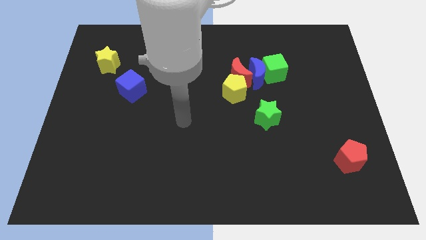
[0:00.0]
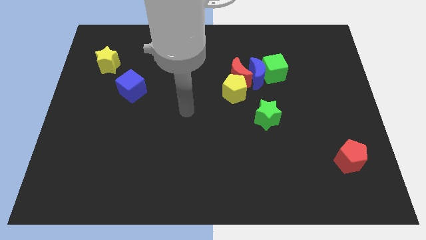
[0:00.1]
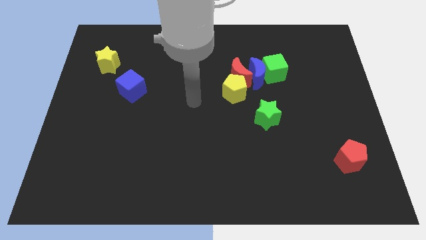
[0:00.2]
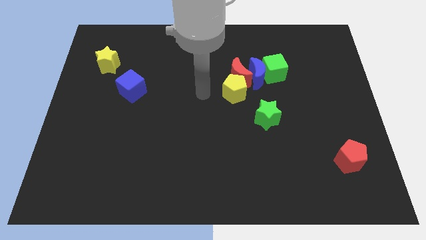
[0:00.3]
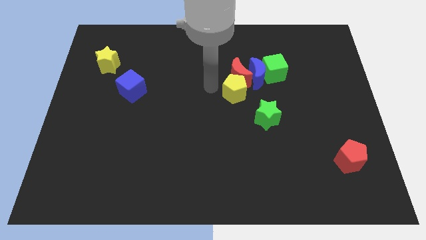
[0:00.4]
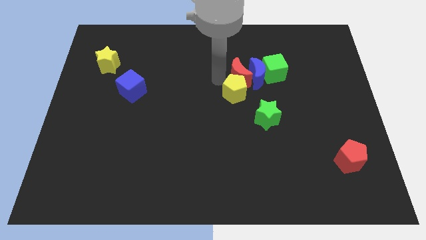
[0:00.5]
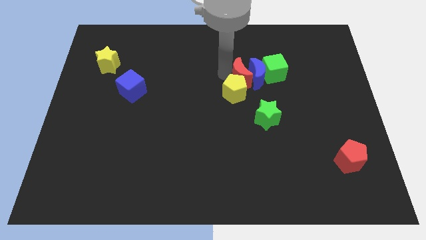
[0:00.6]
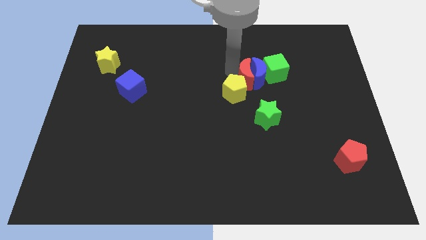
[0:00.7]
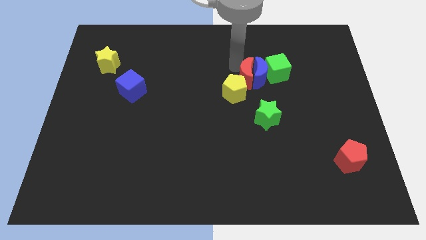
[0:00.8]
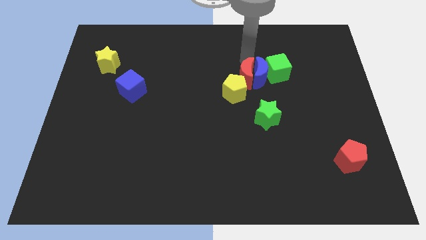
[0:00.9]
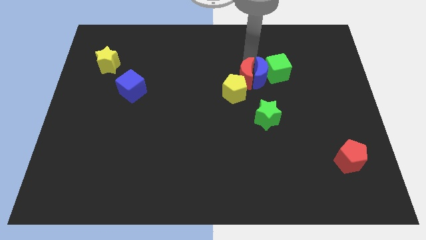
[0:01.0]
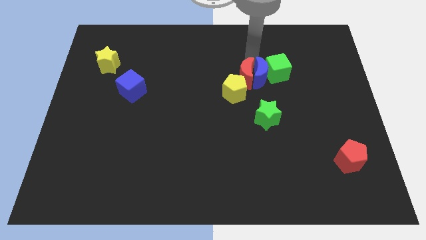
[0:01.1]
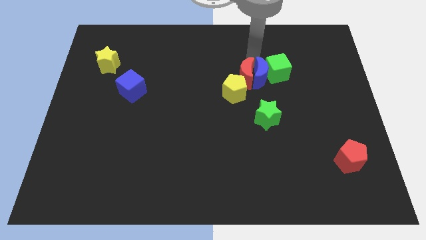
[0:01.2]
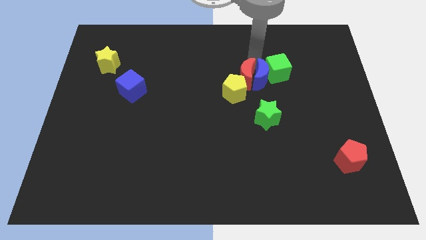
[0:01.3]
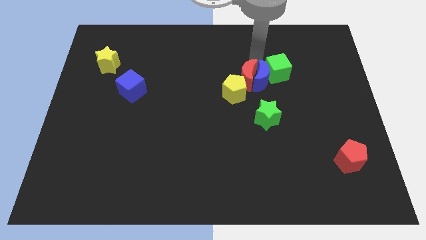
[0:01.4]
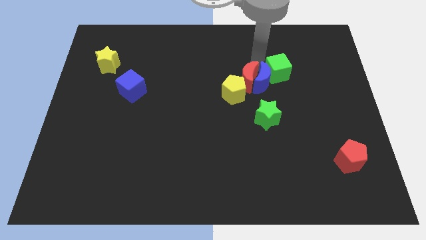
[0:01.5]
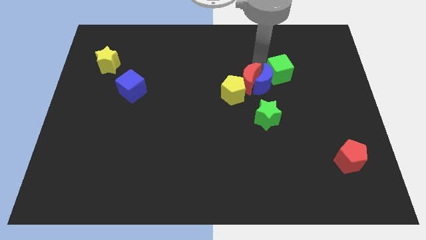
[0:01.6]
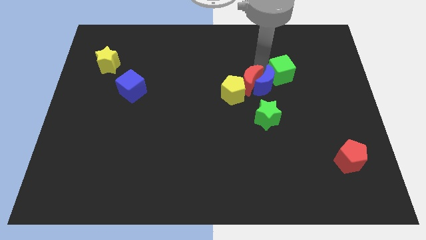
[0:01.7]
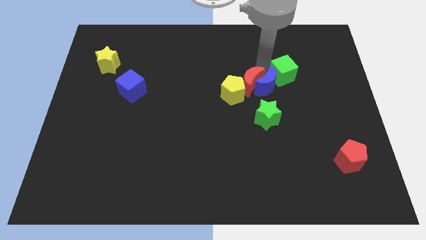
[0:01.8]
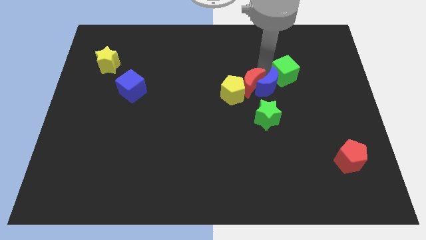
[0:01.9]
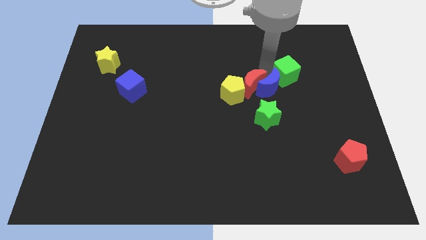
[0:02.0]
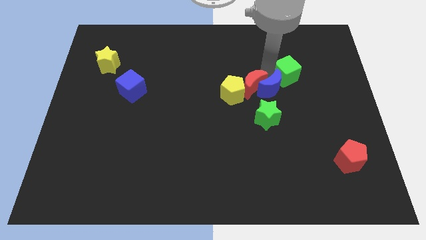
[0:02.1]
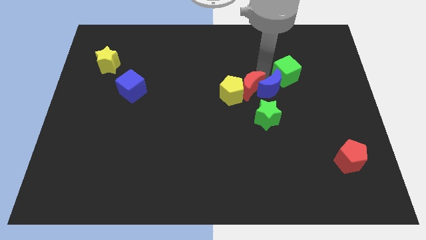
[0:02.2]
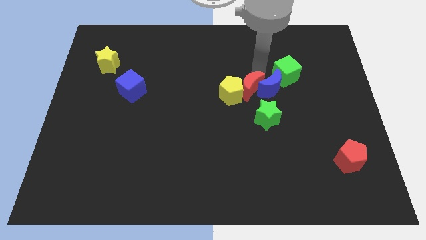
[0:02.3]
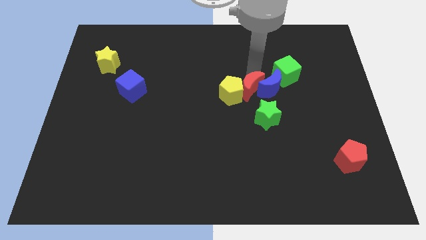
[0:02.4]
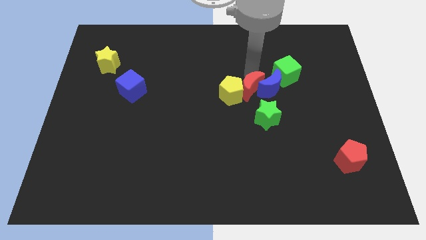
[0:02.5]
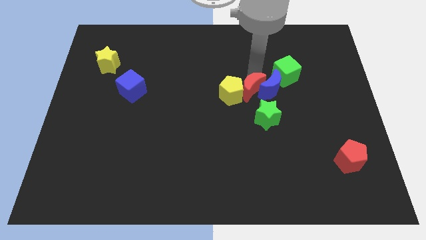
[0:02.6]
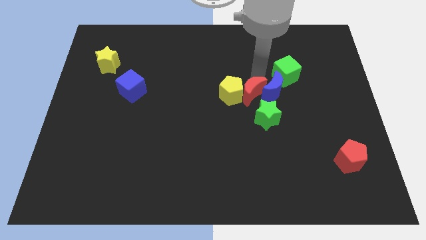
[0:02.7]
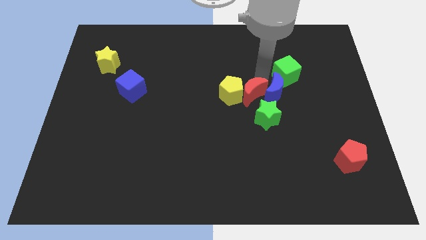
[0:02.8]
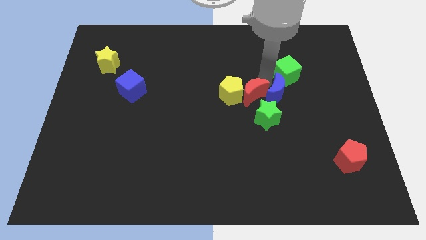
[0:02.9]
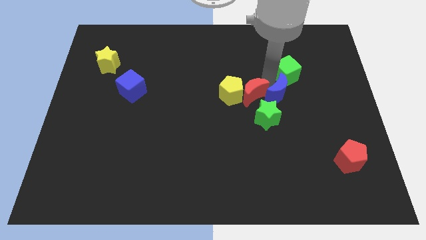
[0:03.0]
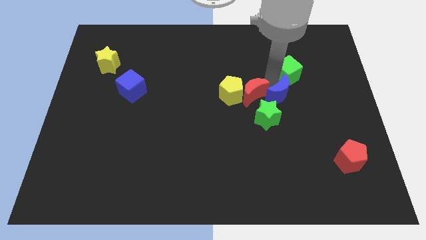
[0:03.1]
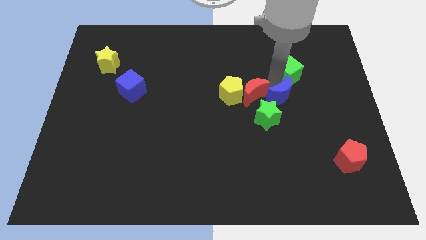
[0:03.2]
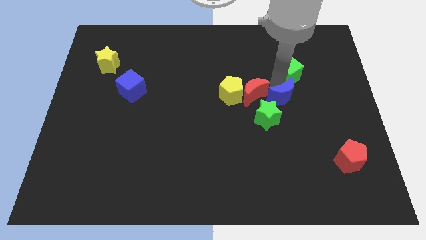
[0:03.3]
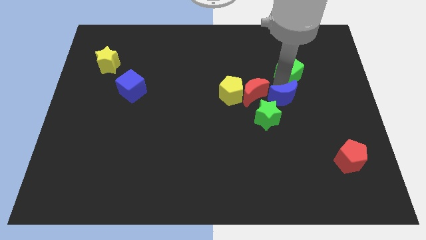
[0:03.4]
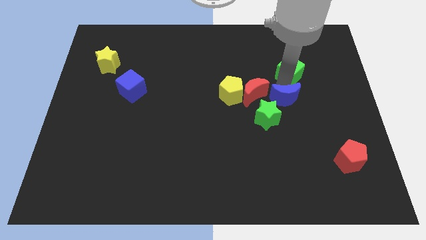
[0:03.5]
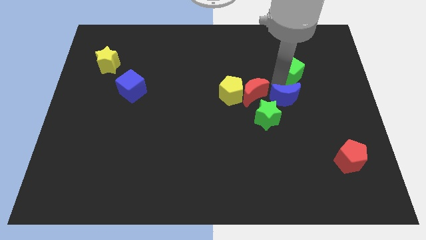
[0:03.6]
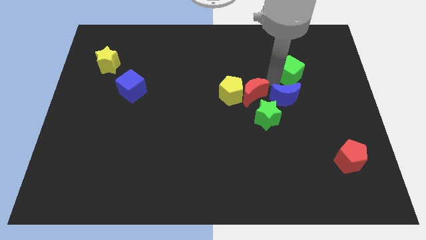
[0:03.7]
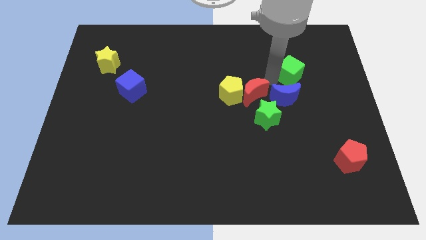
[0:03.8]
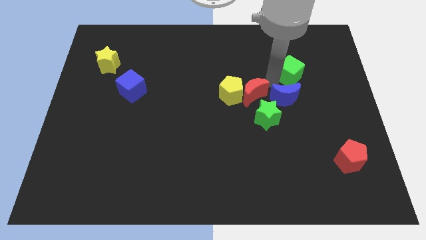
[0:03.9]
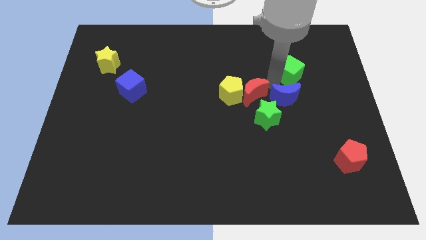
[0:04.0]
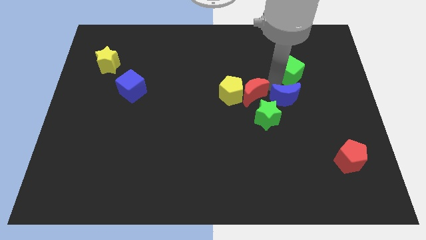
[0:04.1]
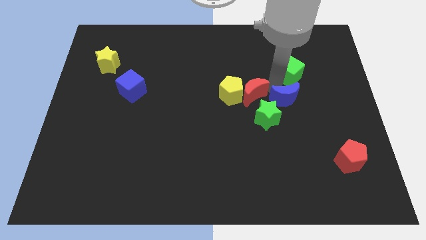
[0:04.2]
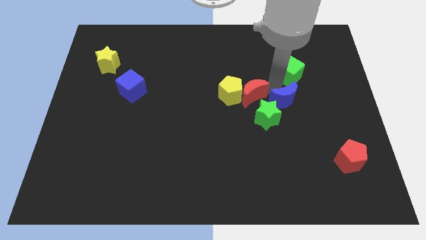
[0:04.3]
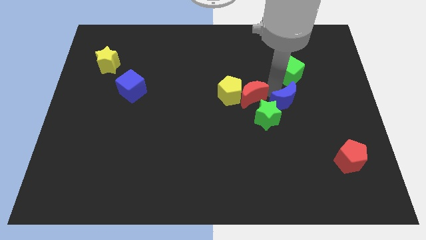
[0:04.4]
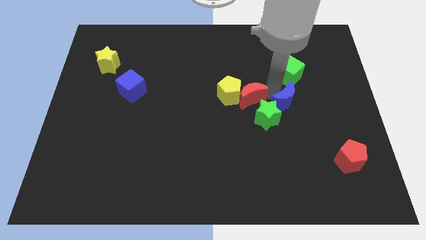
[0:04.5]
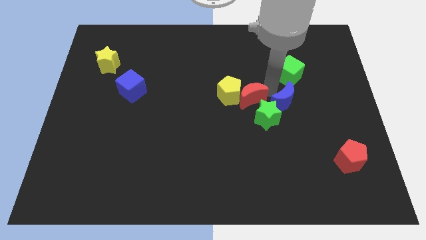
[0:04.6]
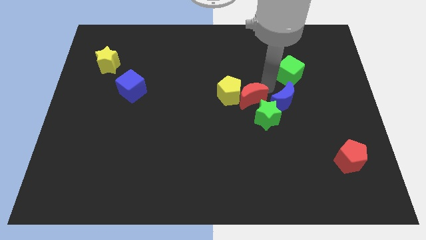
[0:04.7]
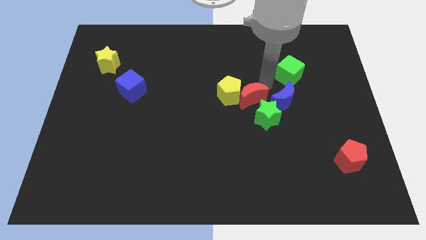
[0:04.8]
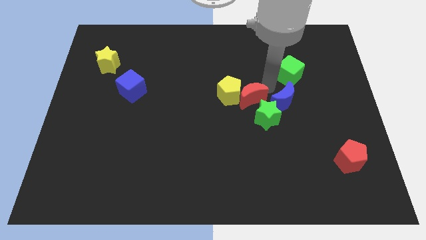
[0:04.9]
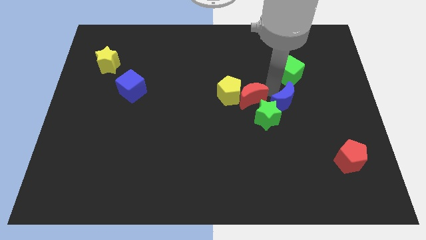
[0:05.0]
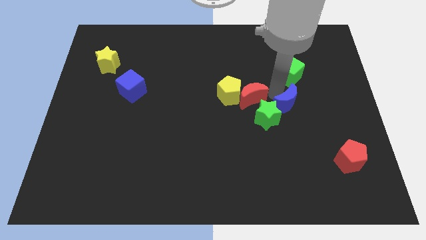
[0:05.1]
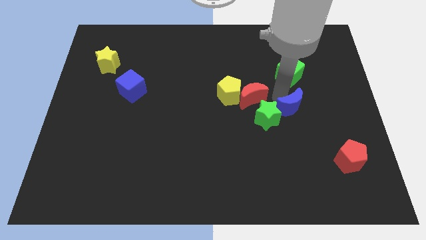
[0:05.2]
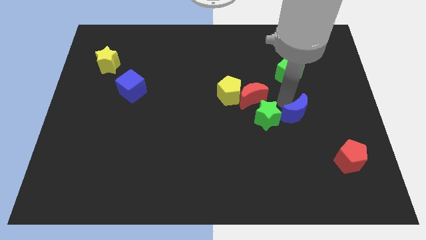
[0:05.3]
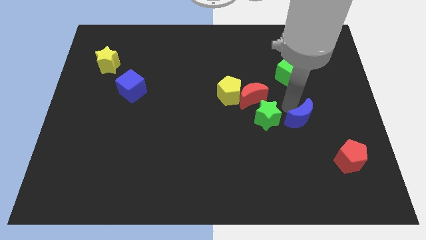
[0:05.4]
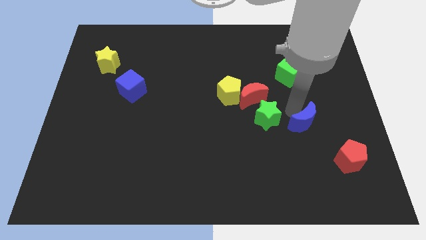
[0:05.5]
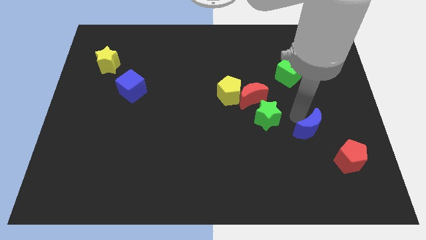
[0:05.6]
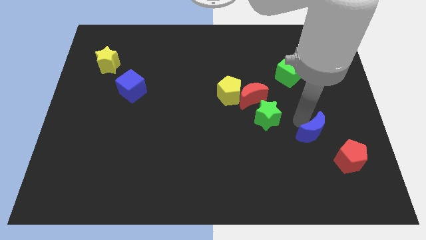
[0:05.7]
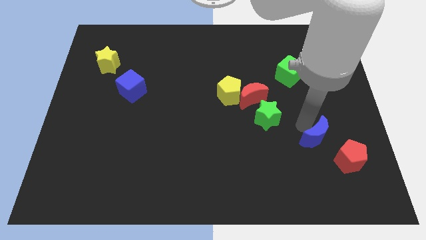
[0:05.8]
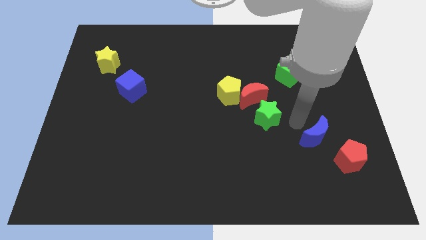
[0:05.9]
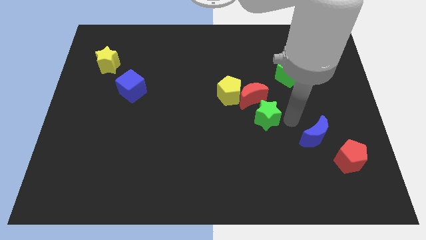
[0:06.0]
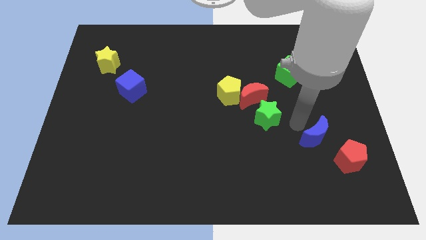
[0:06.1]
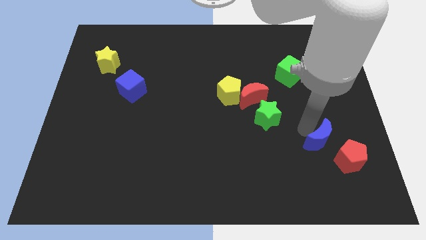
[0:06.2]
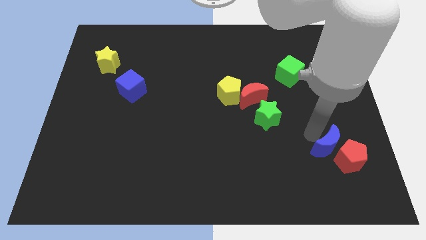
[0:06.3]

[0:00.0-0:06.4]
push the blue moon to the red pentagon
